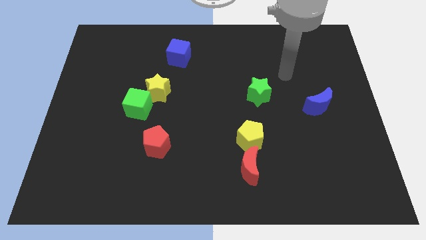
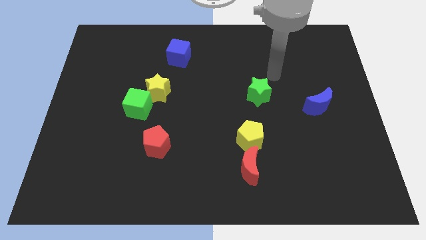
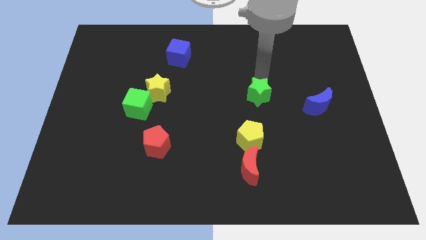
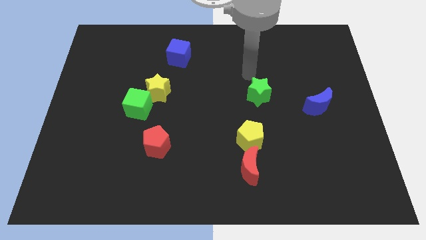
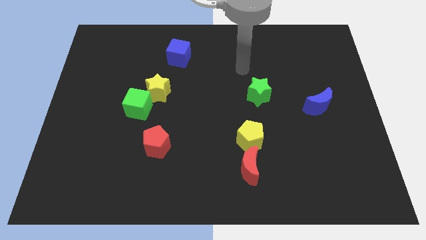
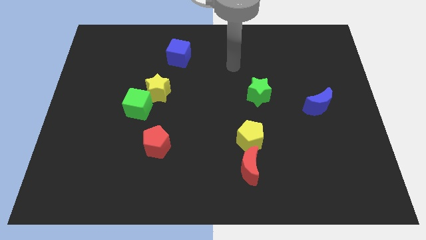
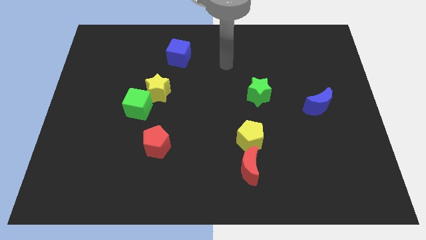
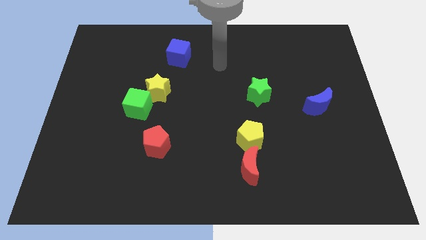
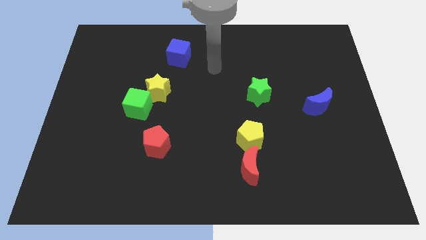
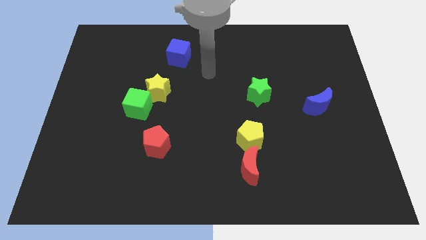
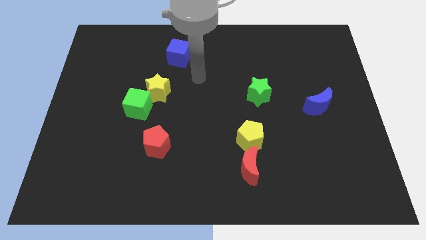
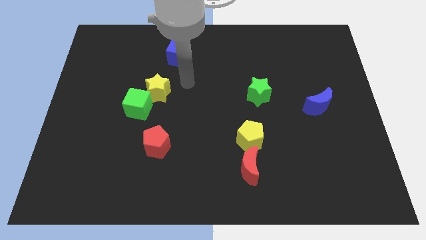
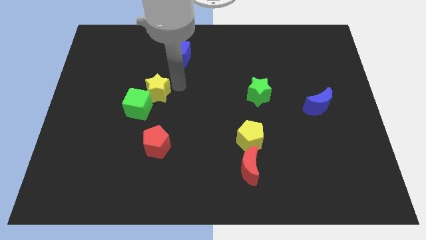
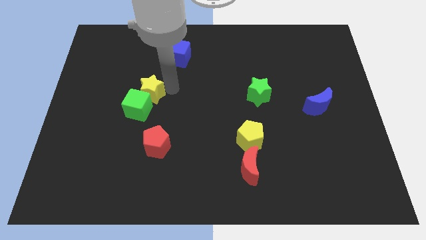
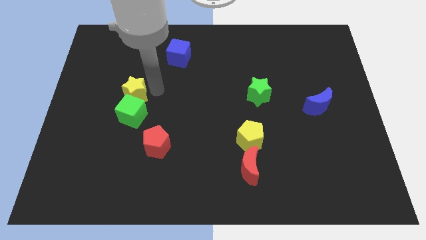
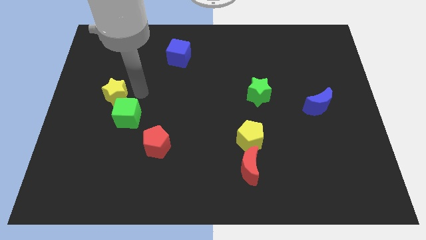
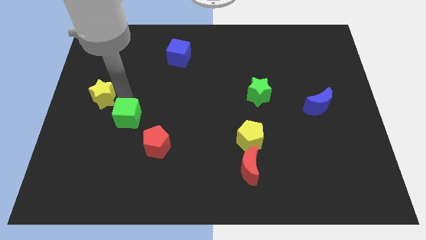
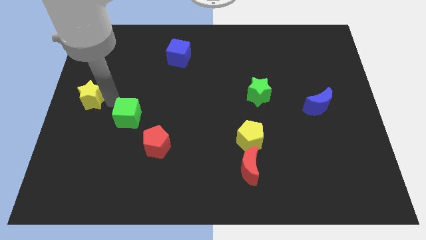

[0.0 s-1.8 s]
separate the green cube from the yellow star

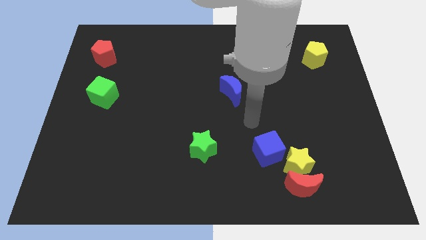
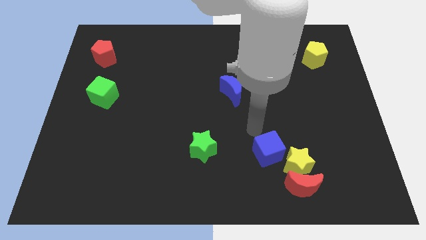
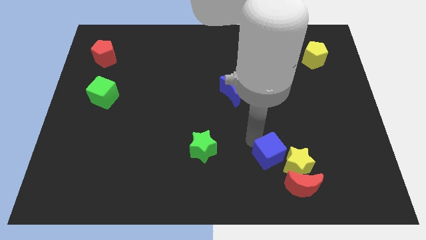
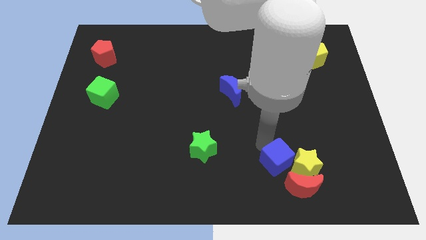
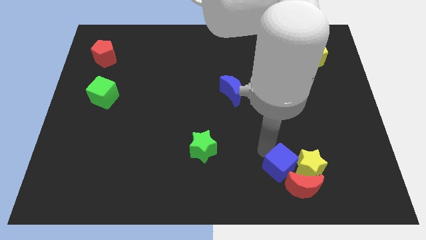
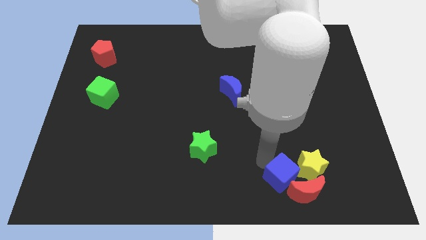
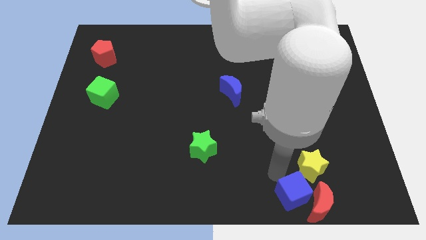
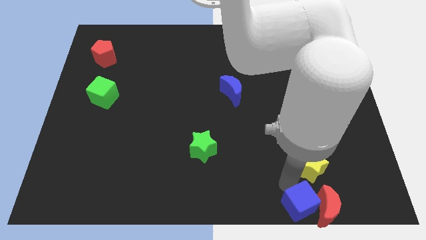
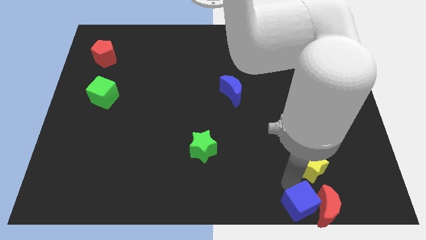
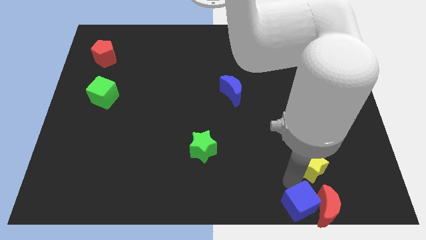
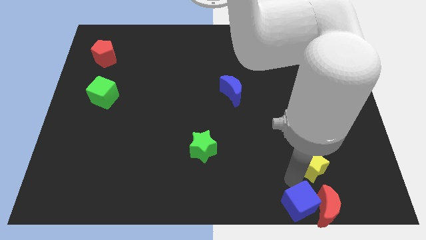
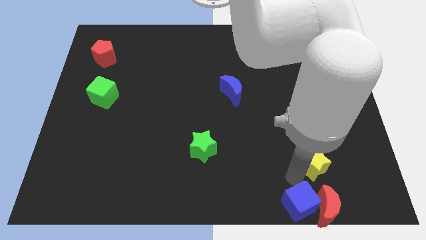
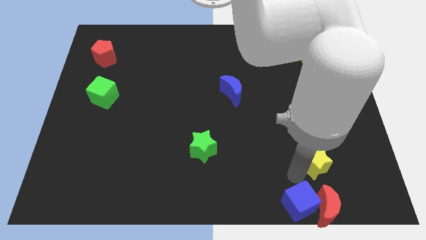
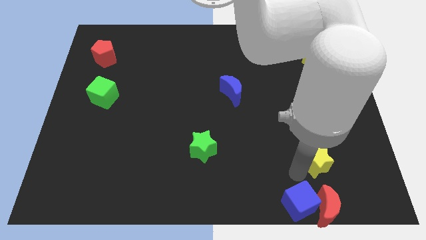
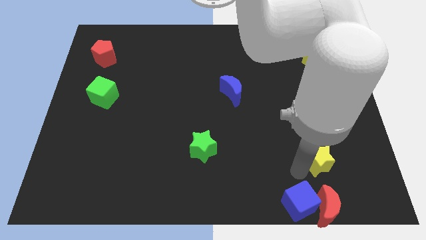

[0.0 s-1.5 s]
separate the yellow star from the red moon and blue cube

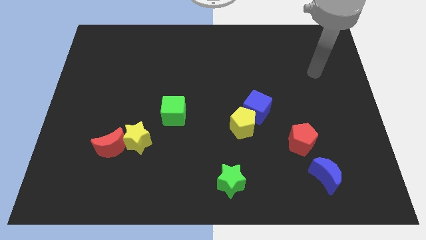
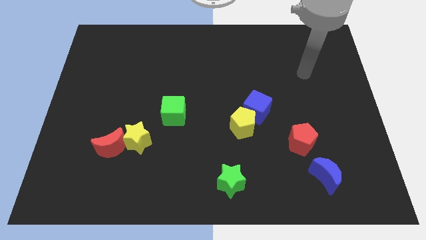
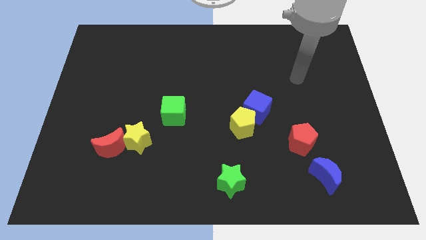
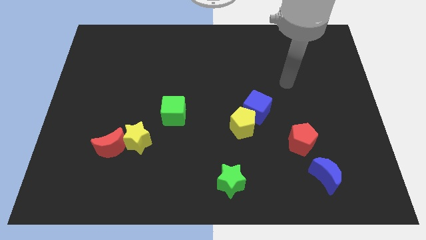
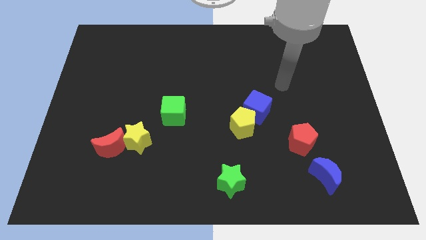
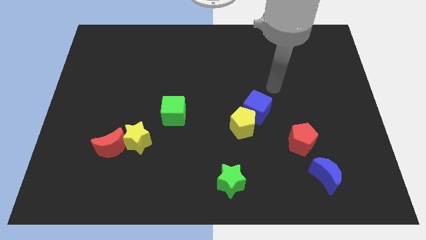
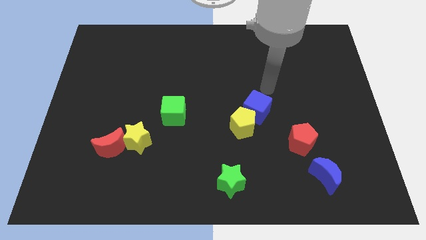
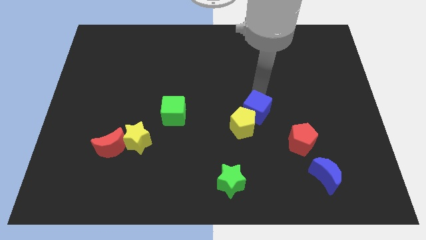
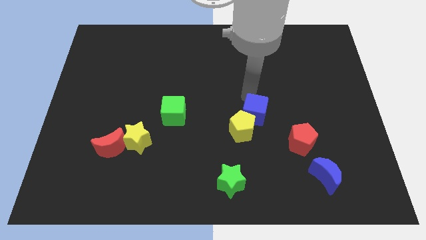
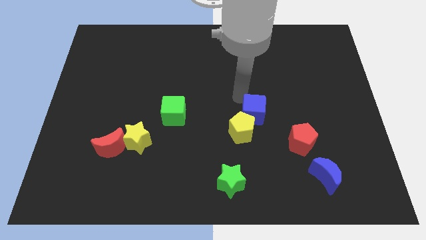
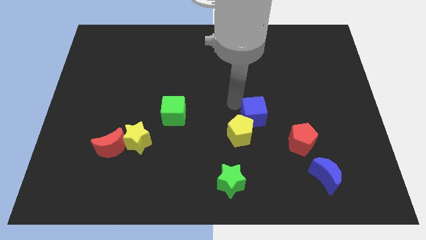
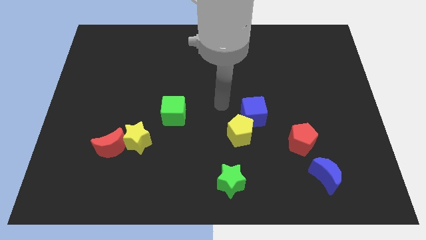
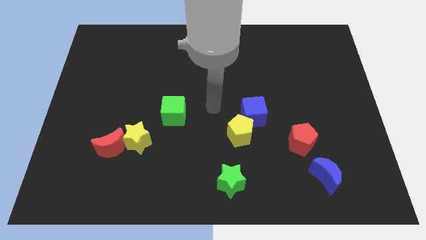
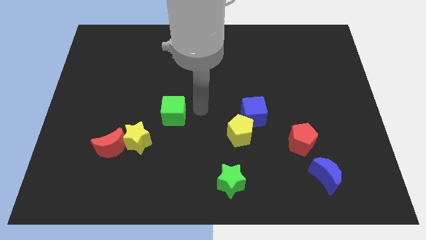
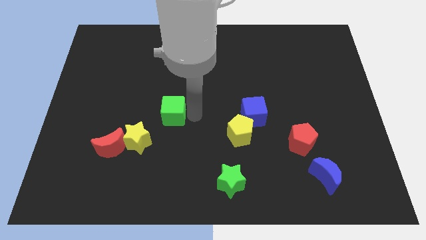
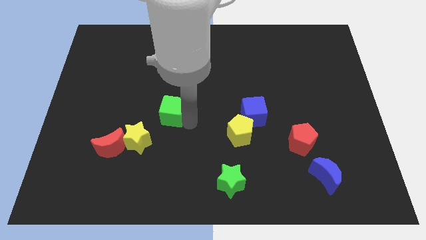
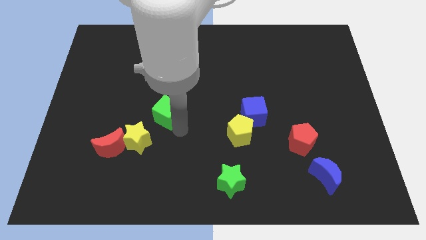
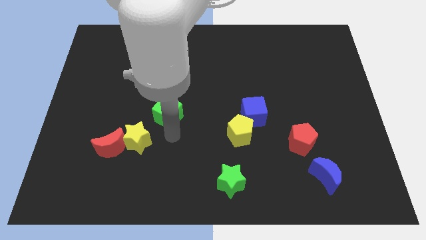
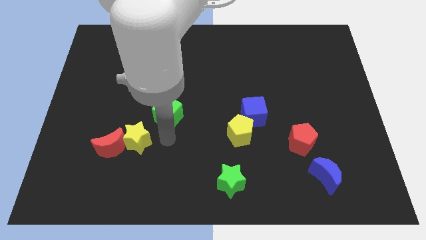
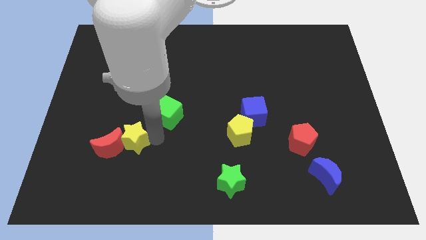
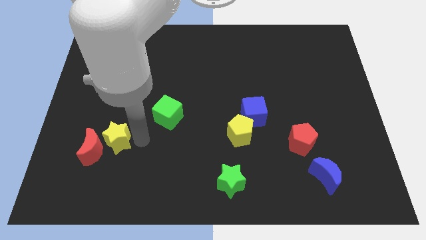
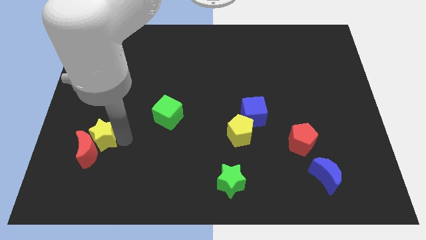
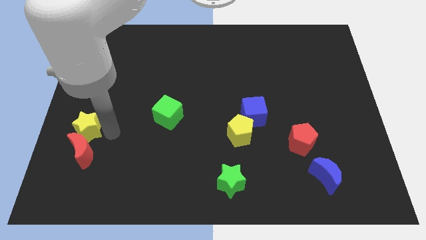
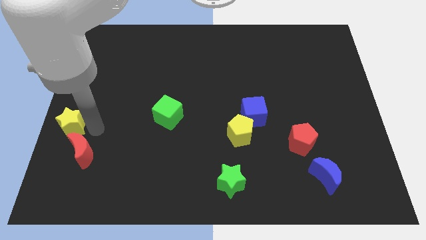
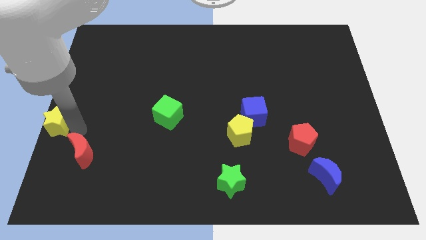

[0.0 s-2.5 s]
separate the red moon from the yellow star

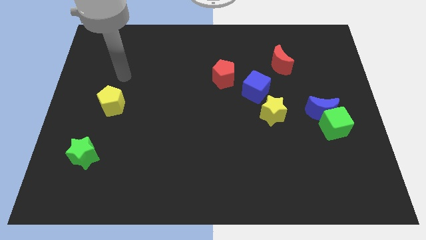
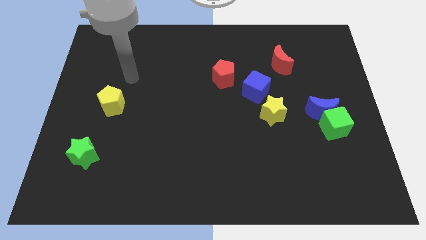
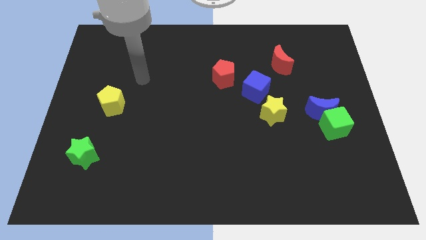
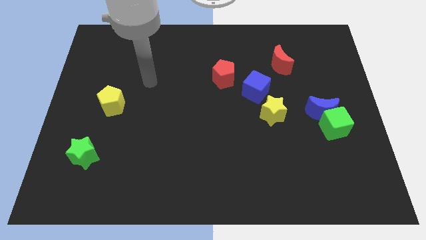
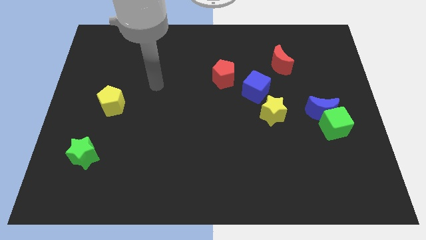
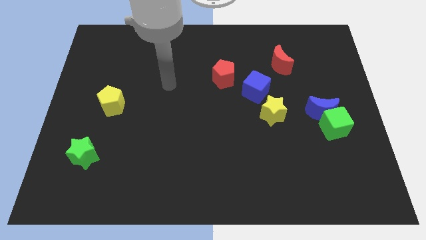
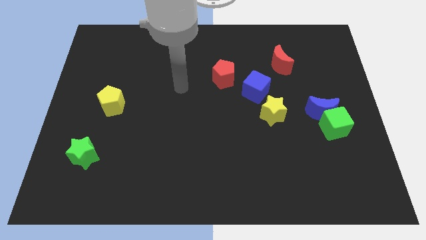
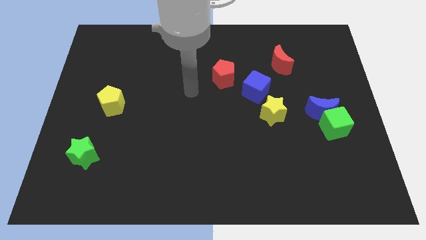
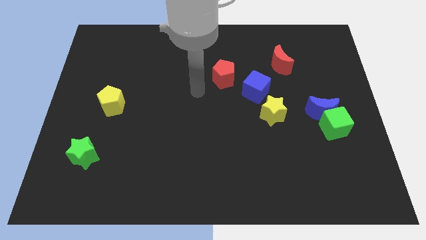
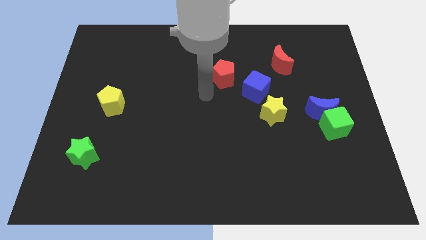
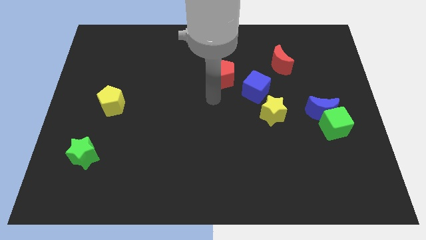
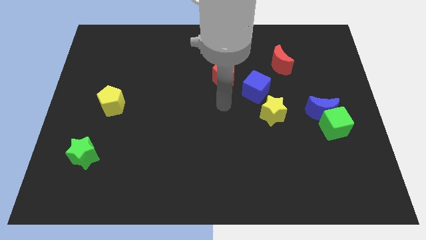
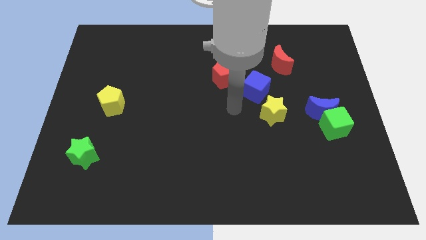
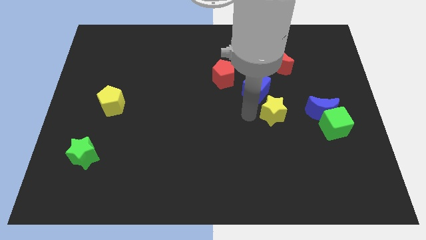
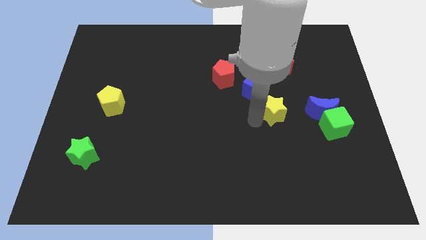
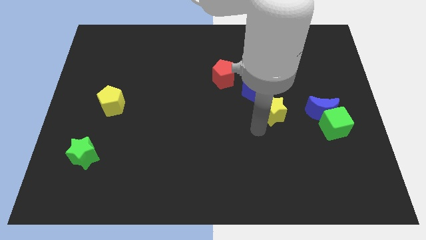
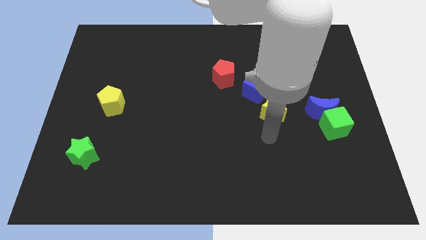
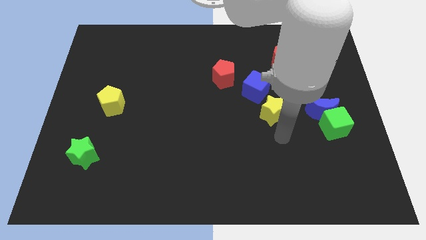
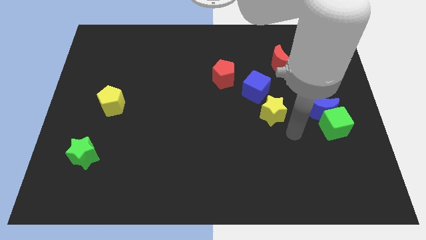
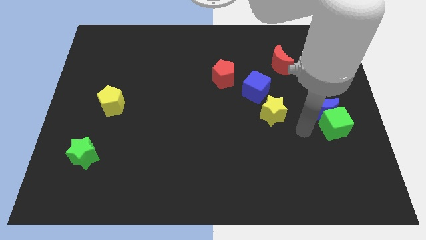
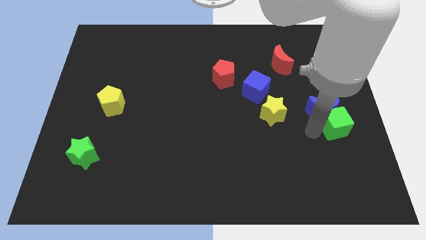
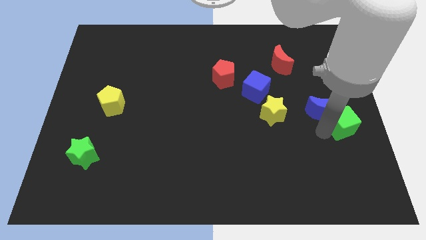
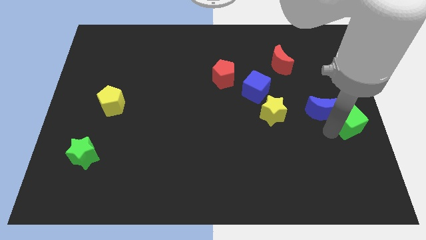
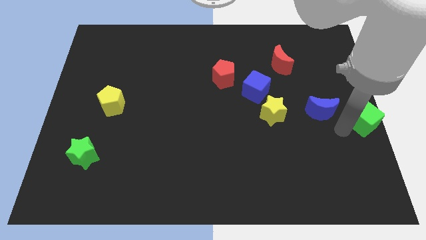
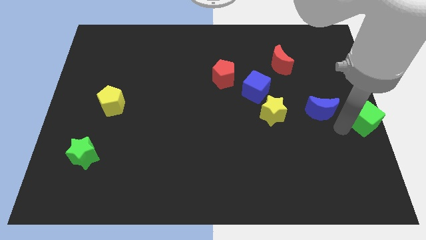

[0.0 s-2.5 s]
separate the blue moon from the green cube

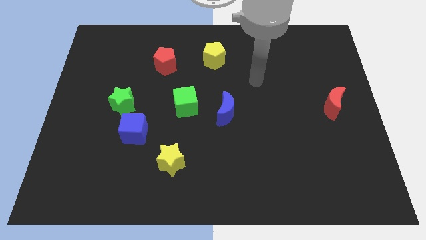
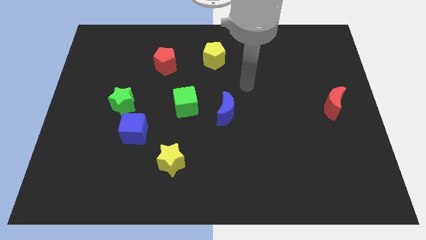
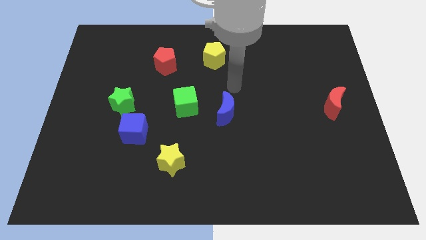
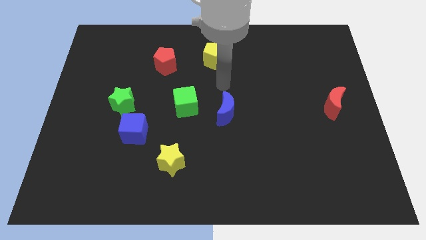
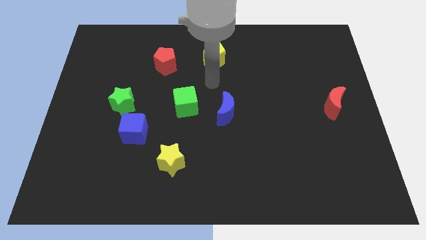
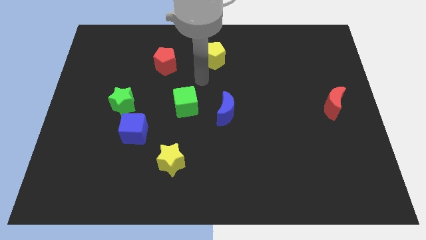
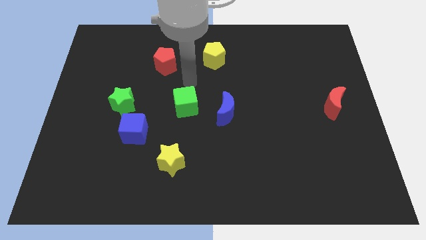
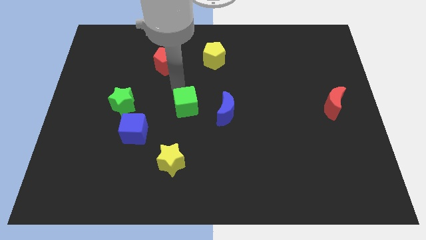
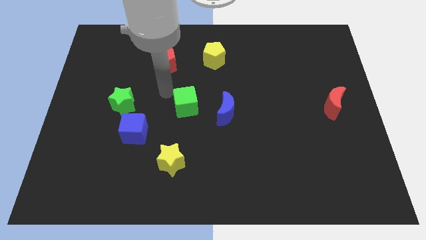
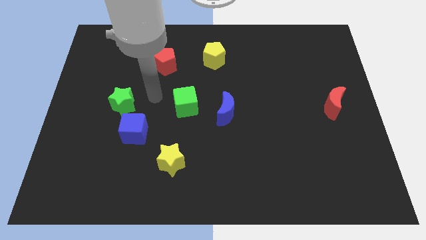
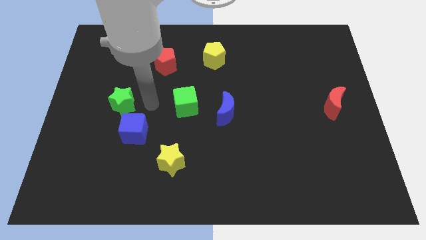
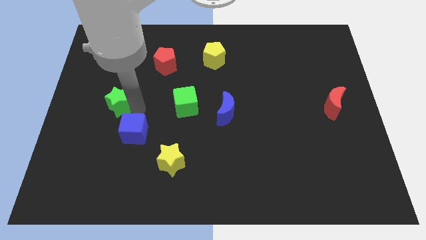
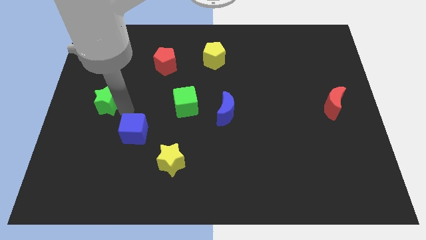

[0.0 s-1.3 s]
separate the blue cube from the green star
